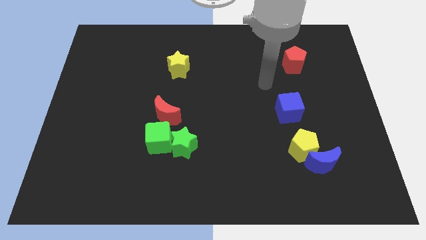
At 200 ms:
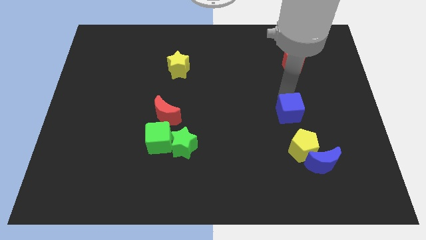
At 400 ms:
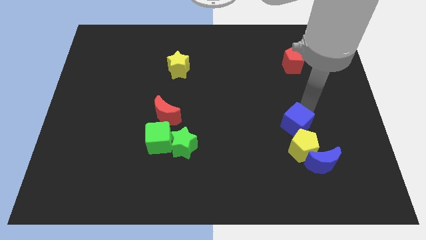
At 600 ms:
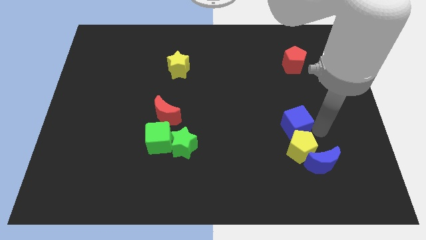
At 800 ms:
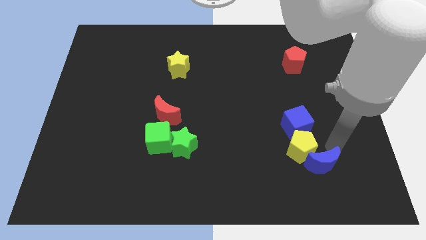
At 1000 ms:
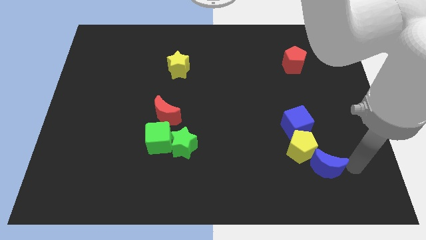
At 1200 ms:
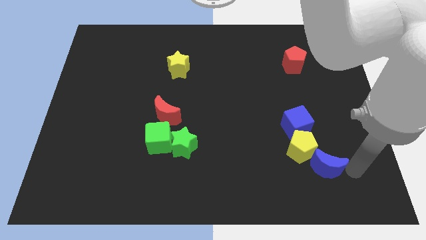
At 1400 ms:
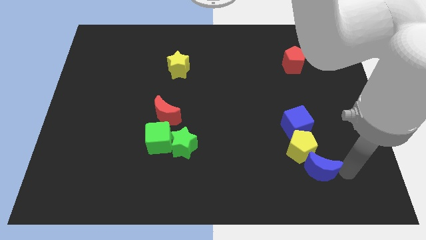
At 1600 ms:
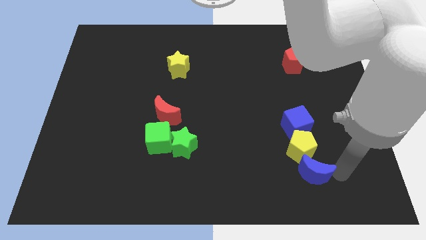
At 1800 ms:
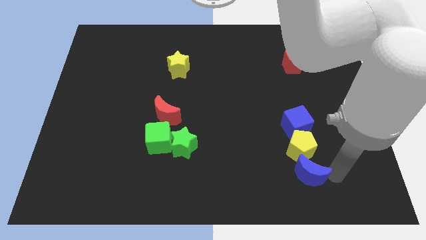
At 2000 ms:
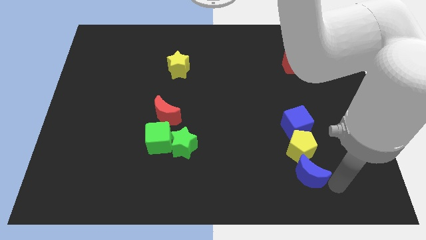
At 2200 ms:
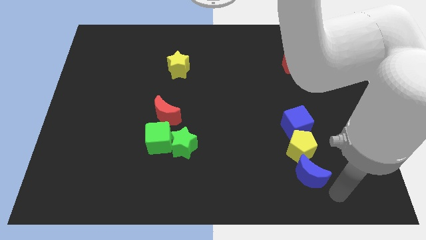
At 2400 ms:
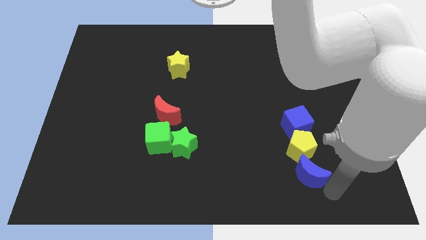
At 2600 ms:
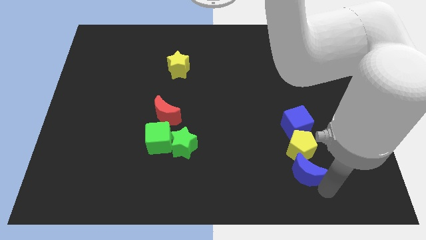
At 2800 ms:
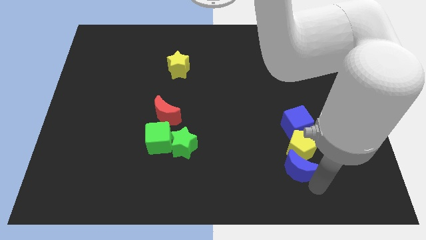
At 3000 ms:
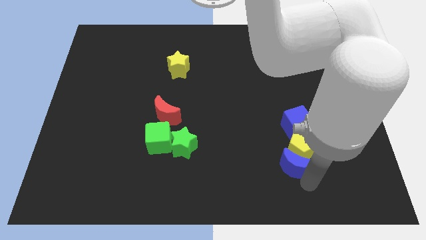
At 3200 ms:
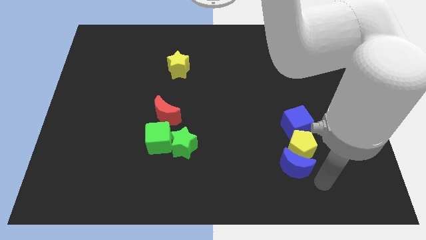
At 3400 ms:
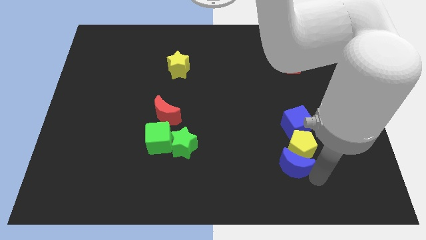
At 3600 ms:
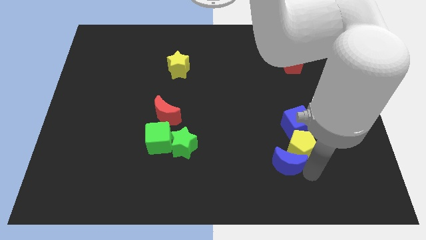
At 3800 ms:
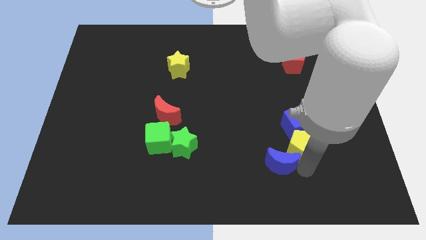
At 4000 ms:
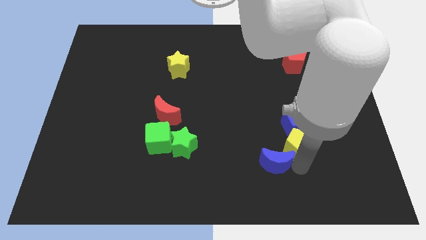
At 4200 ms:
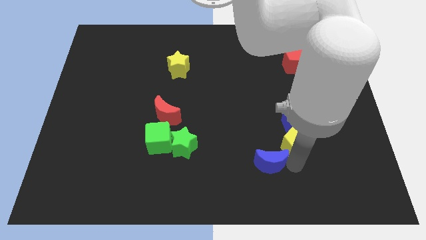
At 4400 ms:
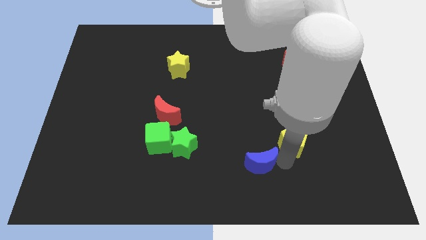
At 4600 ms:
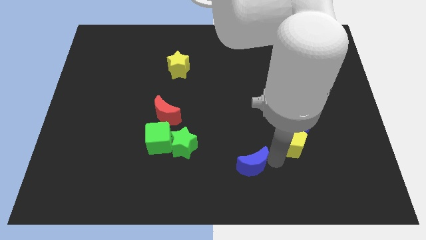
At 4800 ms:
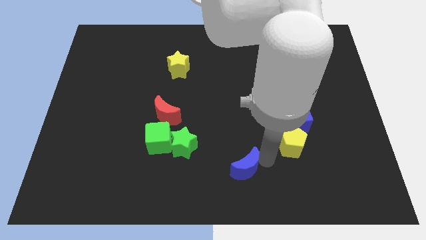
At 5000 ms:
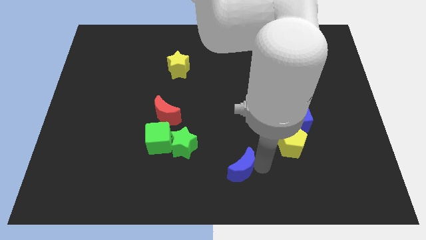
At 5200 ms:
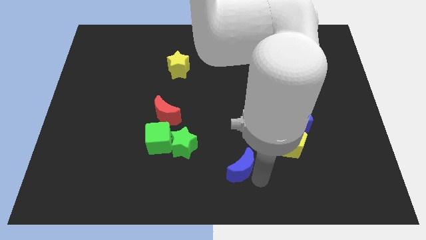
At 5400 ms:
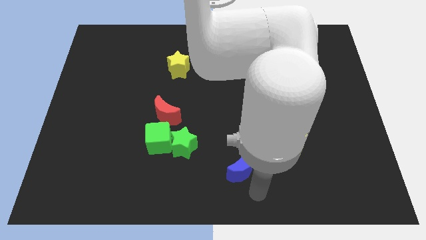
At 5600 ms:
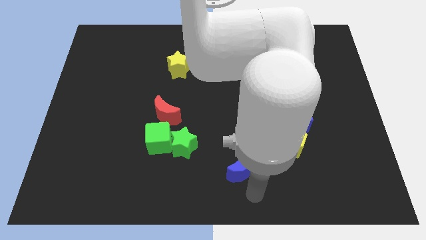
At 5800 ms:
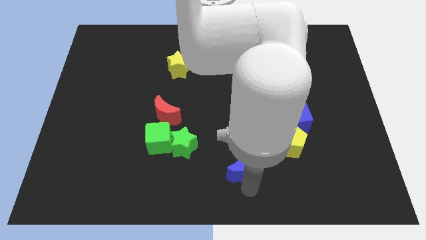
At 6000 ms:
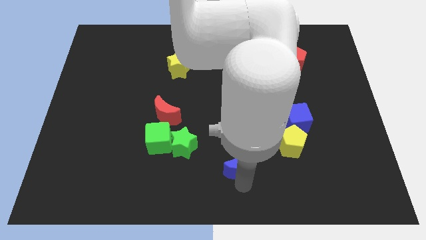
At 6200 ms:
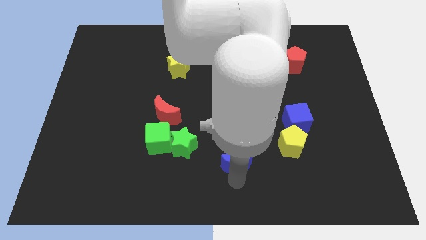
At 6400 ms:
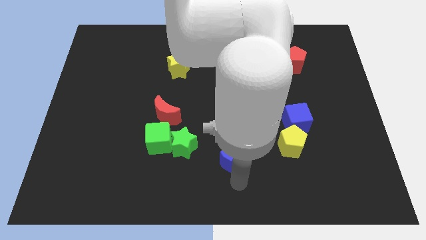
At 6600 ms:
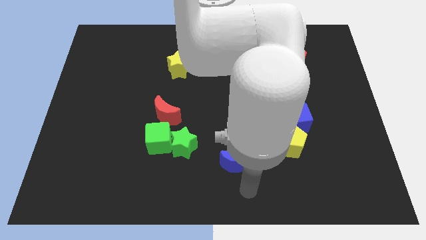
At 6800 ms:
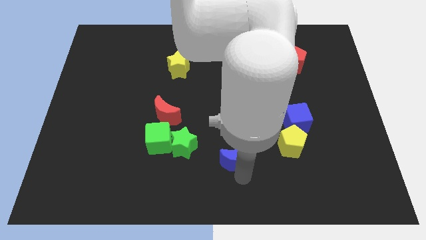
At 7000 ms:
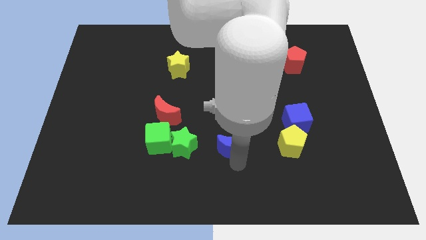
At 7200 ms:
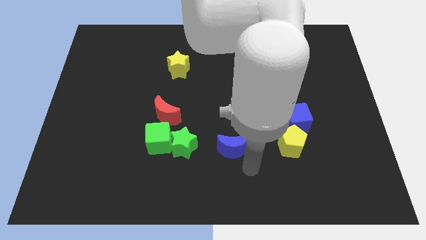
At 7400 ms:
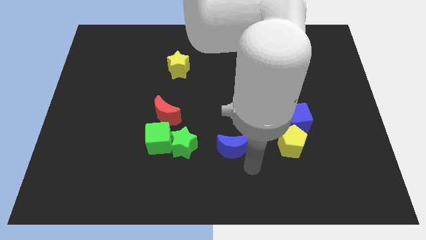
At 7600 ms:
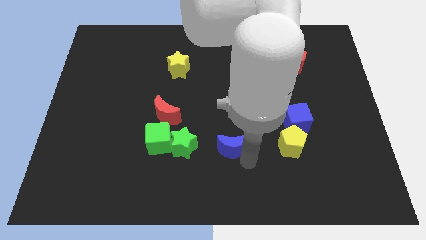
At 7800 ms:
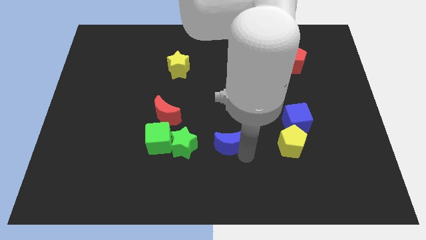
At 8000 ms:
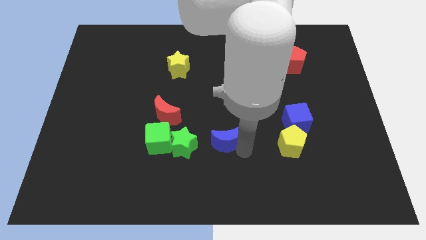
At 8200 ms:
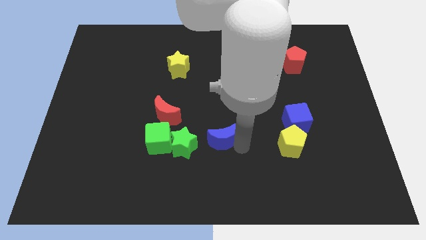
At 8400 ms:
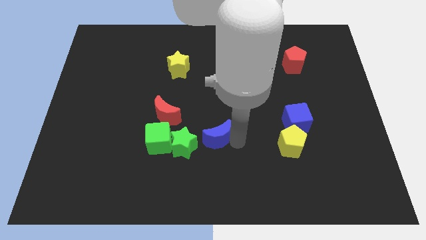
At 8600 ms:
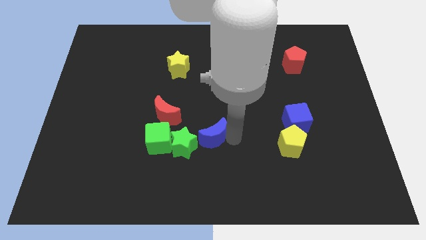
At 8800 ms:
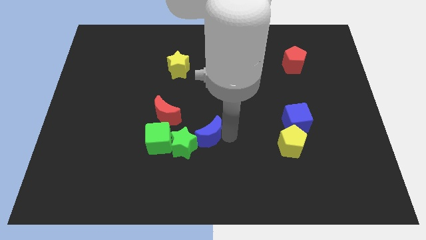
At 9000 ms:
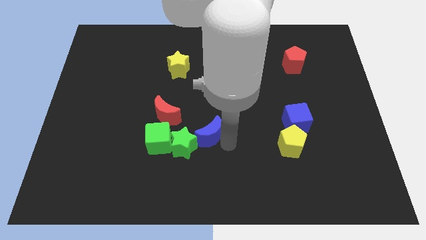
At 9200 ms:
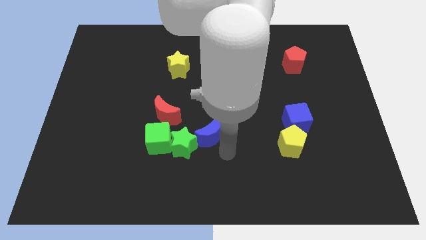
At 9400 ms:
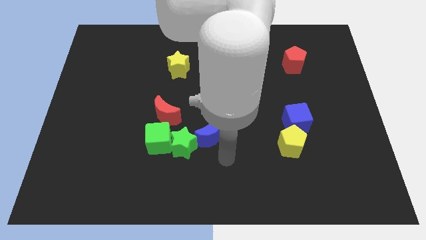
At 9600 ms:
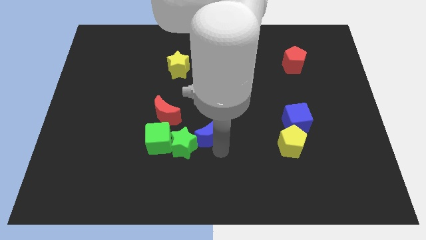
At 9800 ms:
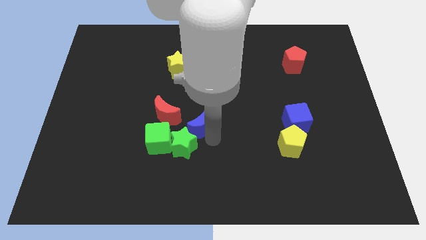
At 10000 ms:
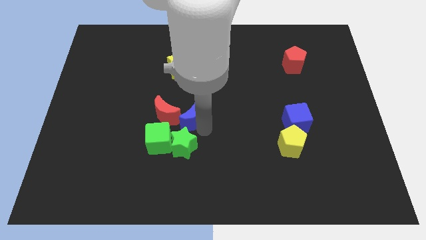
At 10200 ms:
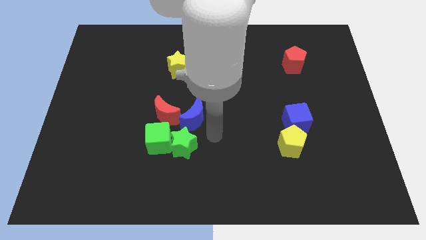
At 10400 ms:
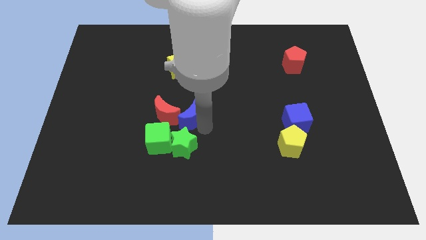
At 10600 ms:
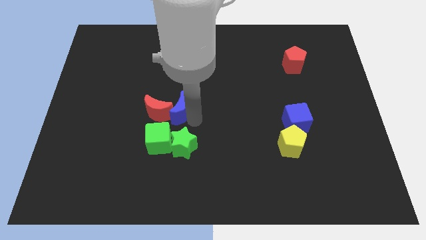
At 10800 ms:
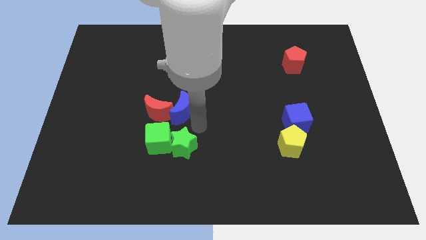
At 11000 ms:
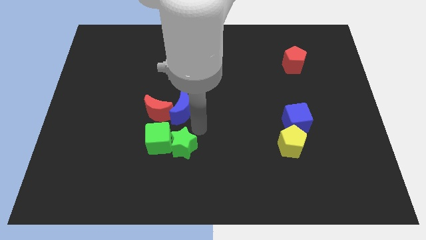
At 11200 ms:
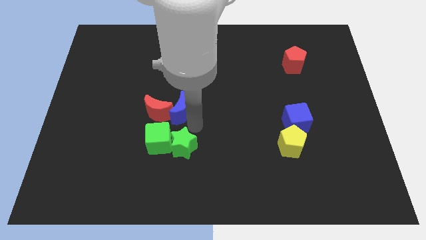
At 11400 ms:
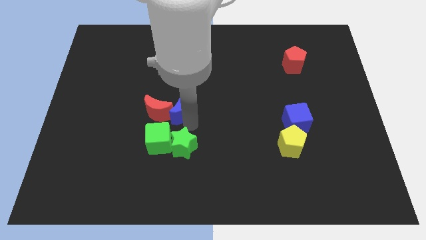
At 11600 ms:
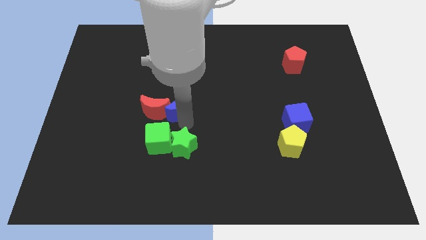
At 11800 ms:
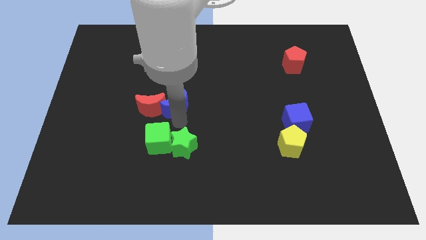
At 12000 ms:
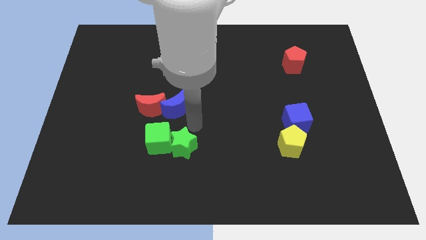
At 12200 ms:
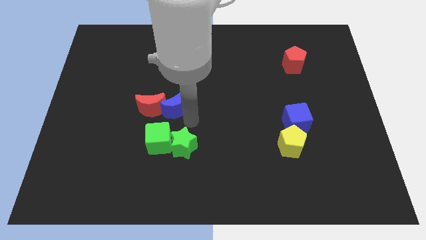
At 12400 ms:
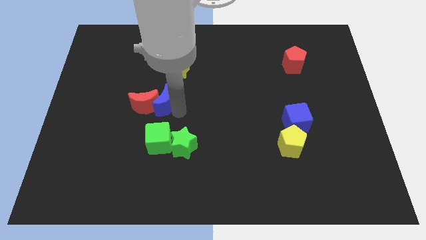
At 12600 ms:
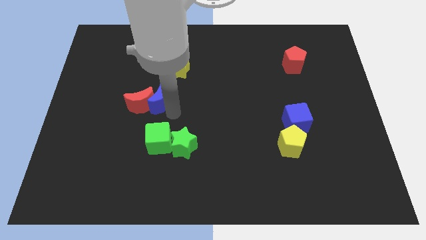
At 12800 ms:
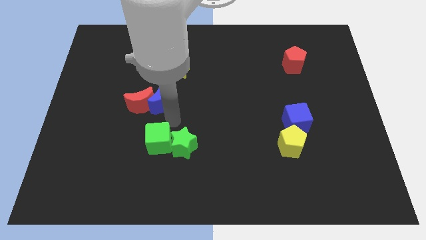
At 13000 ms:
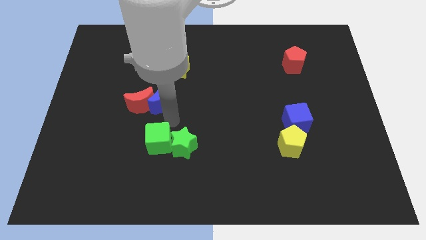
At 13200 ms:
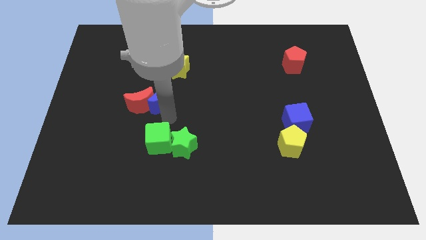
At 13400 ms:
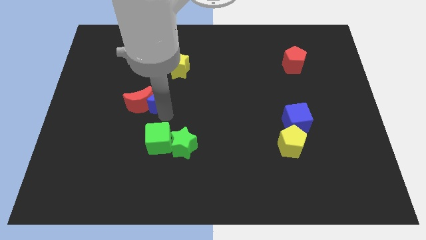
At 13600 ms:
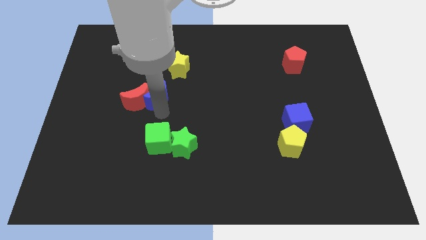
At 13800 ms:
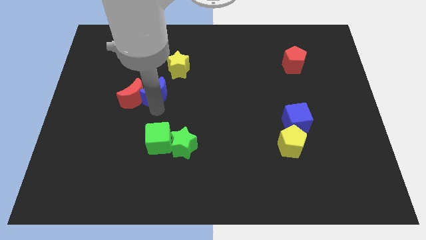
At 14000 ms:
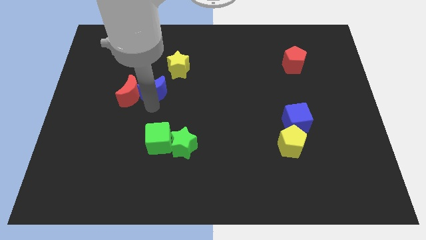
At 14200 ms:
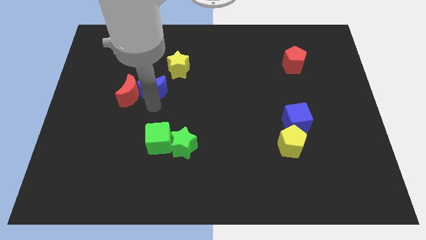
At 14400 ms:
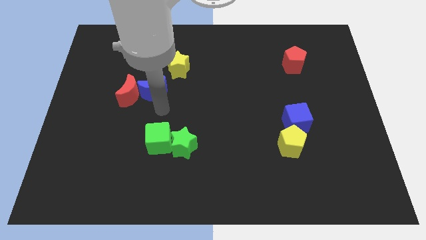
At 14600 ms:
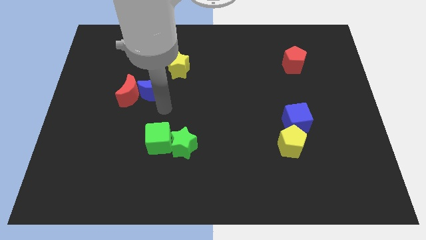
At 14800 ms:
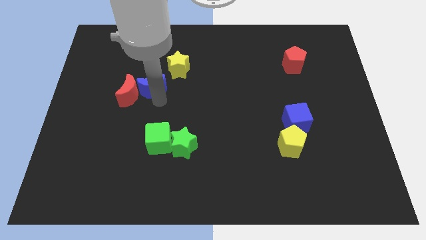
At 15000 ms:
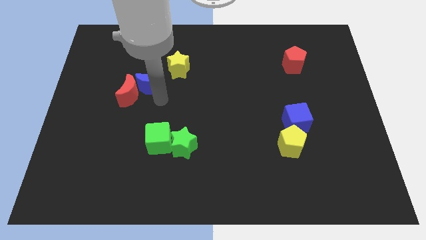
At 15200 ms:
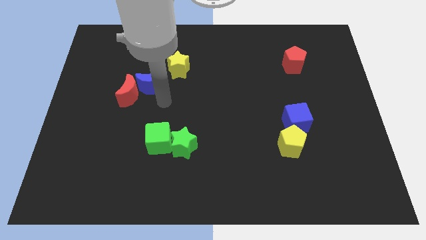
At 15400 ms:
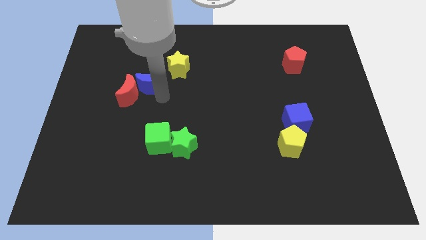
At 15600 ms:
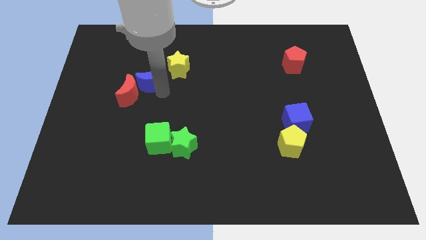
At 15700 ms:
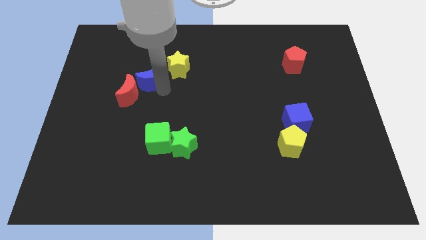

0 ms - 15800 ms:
put the blue moon to the left side of the yellow star
